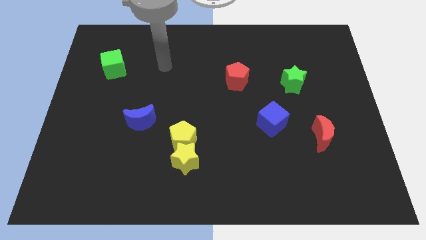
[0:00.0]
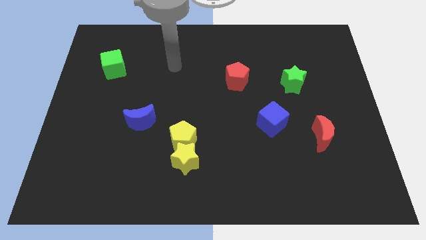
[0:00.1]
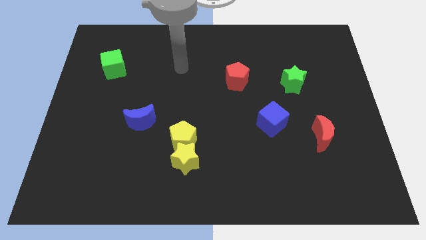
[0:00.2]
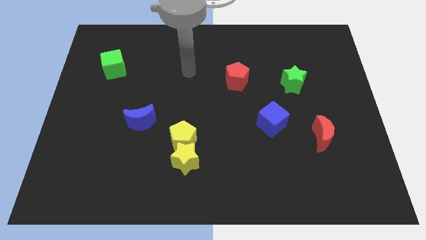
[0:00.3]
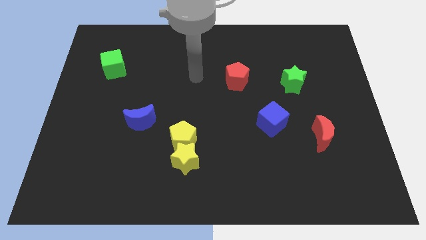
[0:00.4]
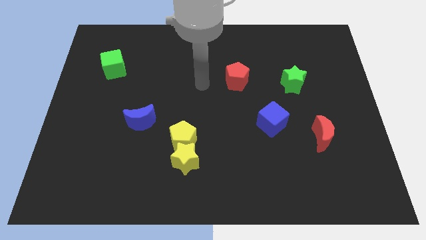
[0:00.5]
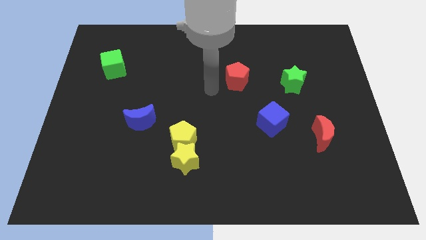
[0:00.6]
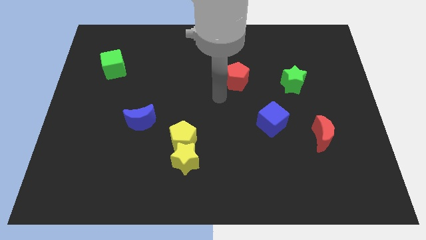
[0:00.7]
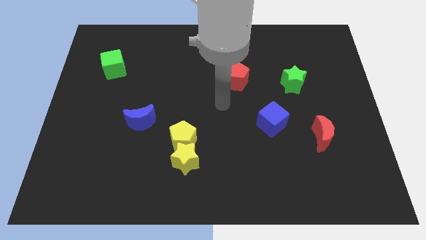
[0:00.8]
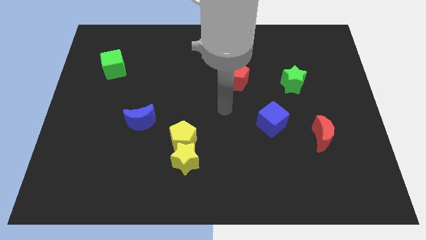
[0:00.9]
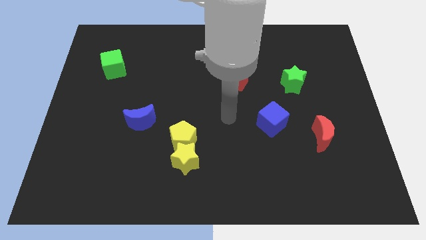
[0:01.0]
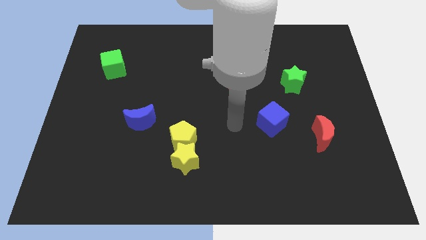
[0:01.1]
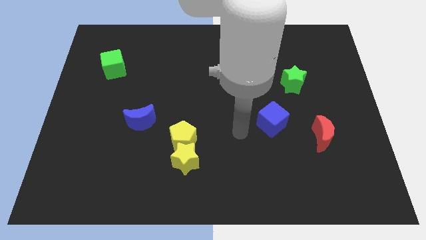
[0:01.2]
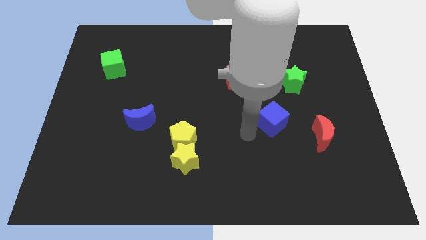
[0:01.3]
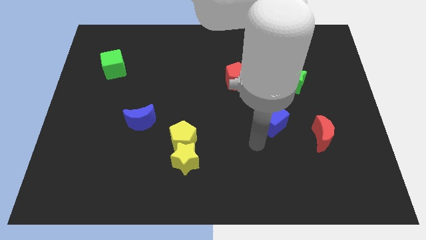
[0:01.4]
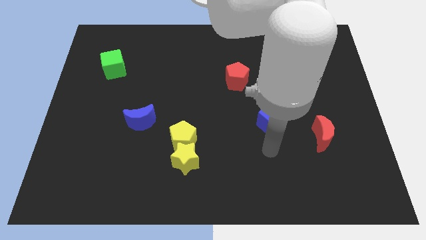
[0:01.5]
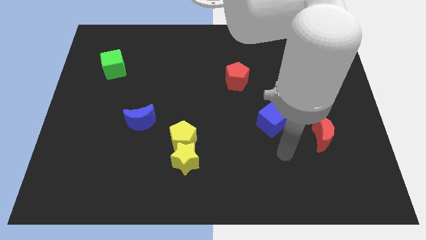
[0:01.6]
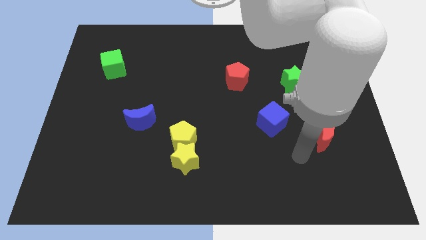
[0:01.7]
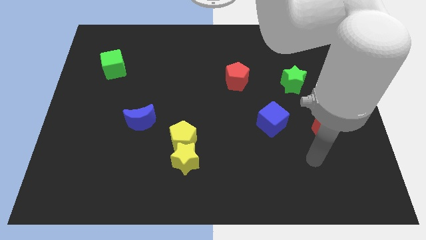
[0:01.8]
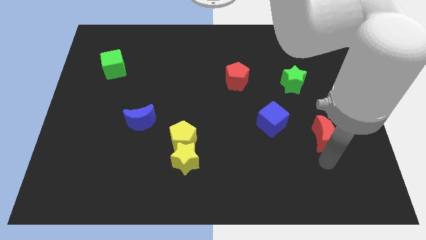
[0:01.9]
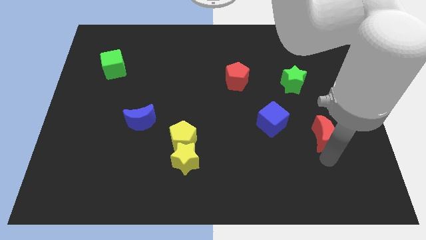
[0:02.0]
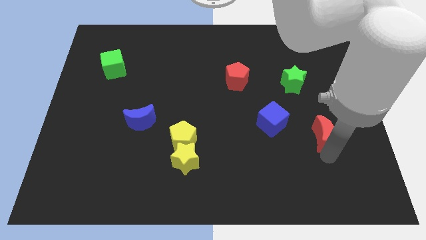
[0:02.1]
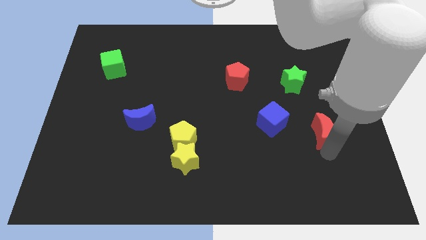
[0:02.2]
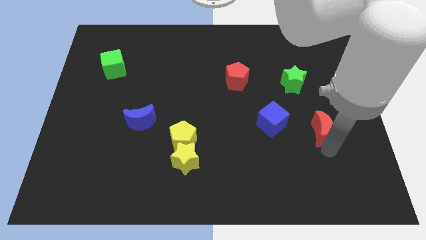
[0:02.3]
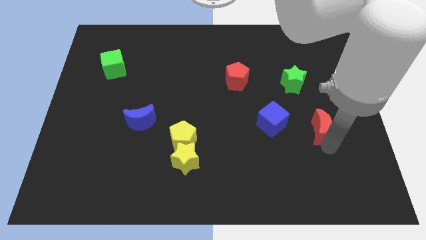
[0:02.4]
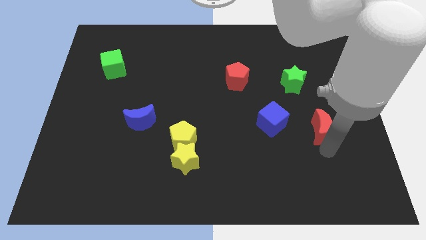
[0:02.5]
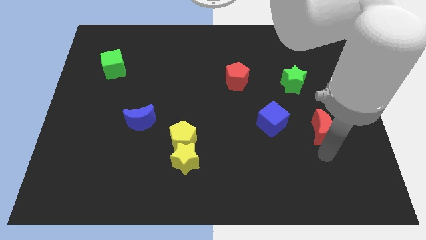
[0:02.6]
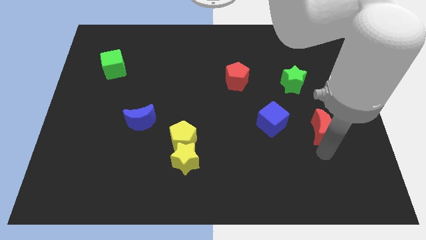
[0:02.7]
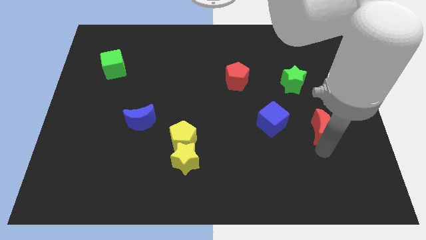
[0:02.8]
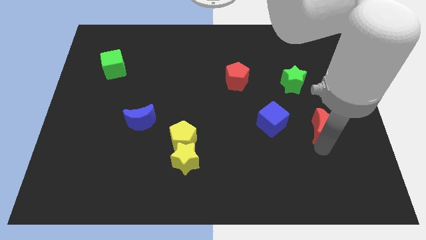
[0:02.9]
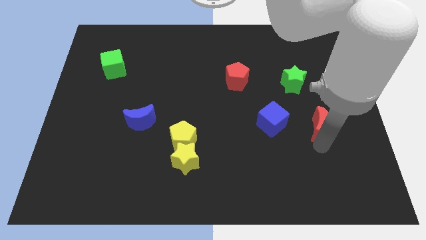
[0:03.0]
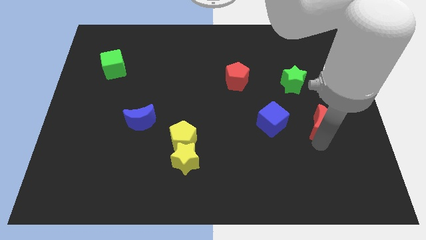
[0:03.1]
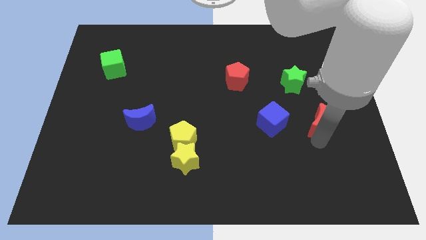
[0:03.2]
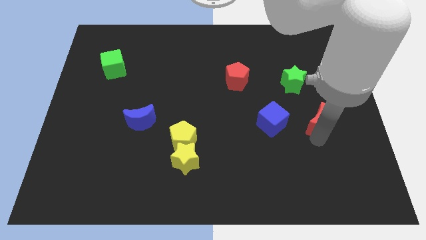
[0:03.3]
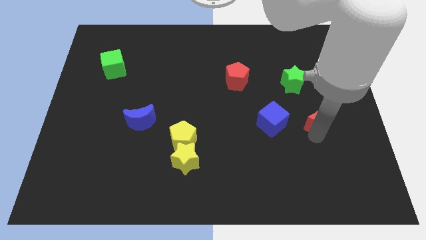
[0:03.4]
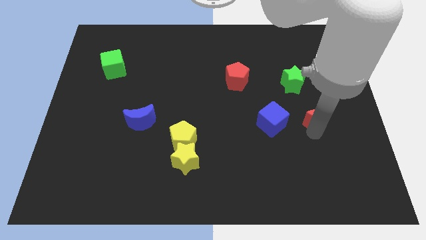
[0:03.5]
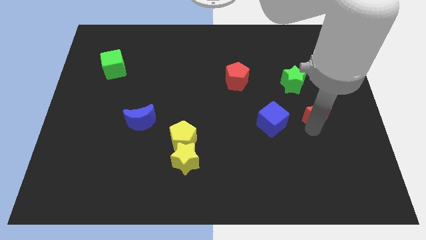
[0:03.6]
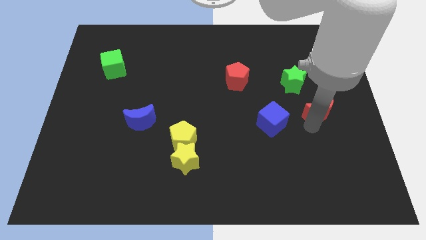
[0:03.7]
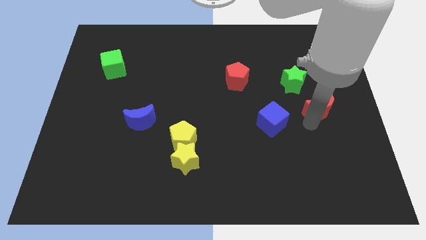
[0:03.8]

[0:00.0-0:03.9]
slightly push the red moon up

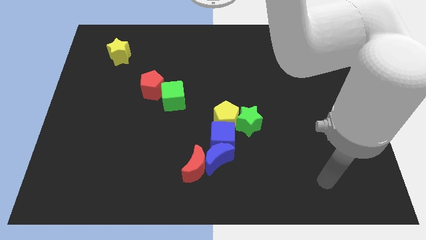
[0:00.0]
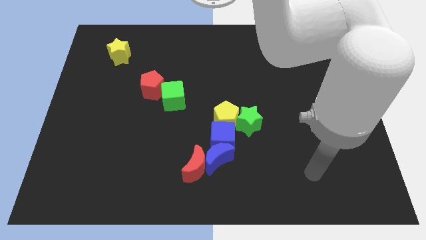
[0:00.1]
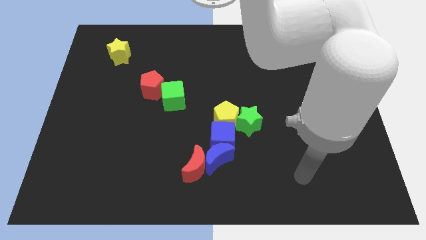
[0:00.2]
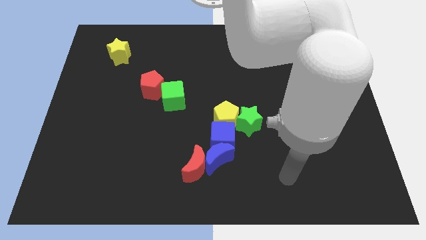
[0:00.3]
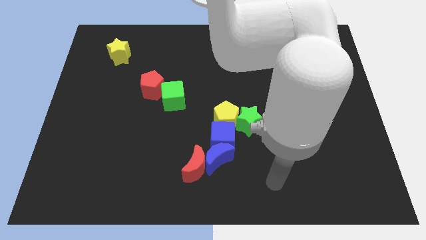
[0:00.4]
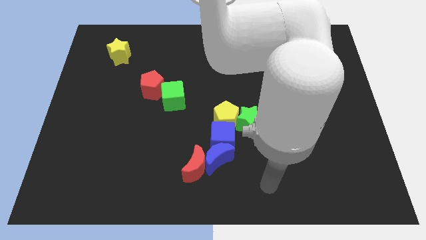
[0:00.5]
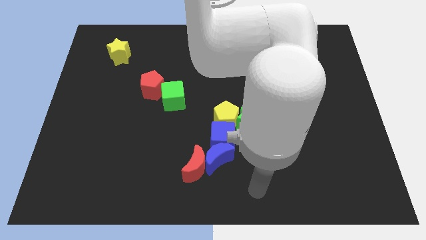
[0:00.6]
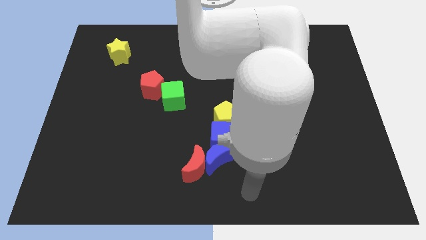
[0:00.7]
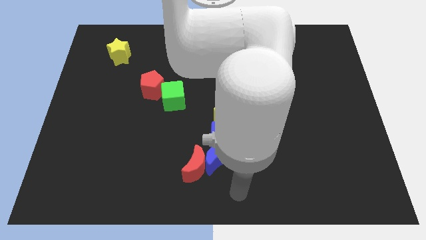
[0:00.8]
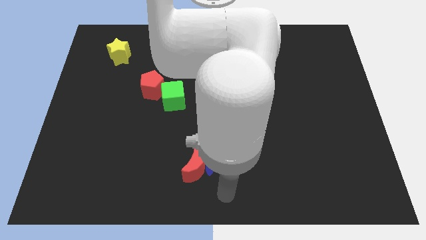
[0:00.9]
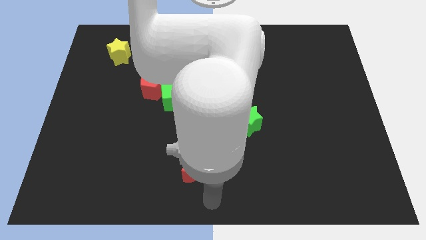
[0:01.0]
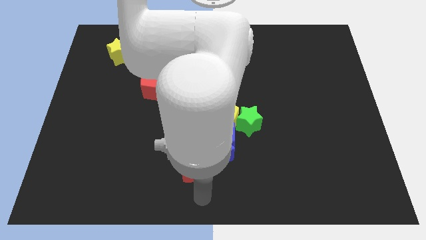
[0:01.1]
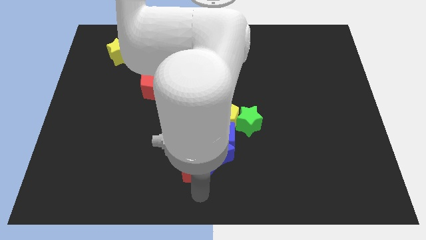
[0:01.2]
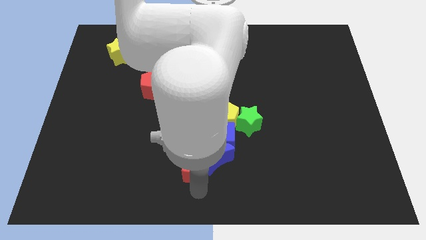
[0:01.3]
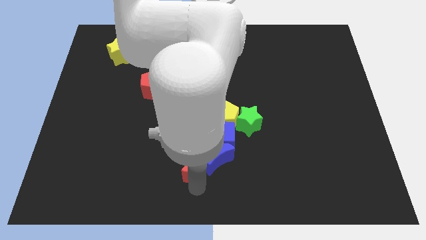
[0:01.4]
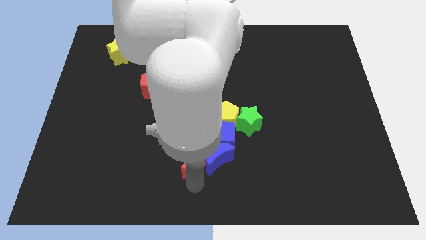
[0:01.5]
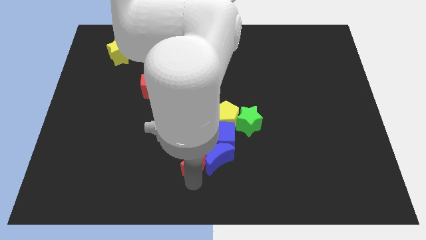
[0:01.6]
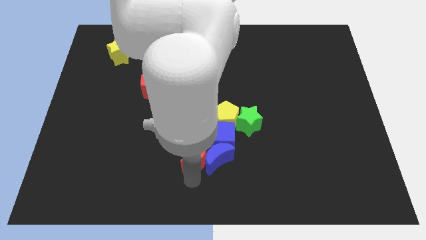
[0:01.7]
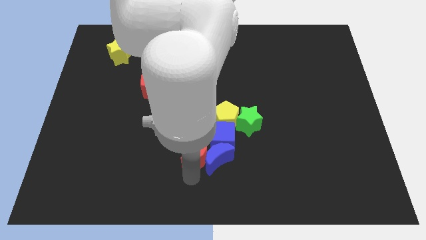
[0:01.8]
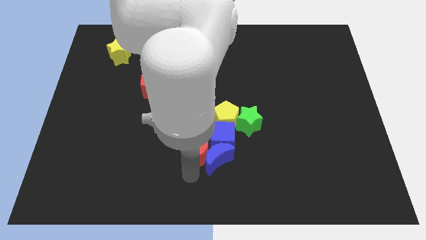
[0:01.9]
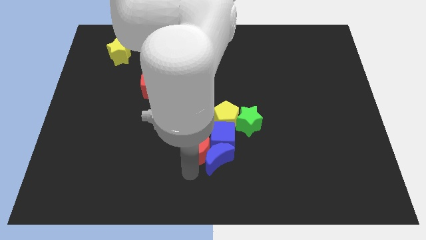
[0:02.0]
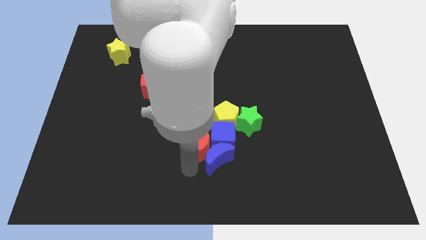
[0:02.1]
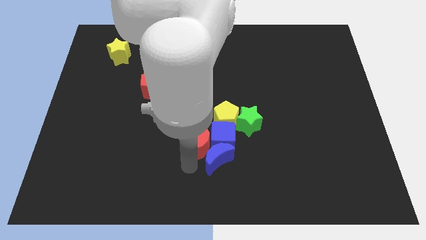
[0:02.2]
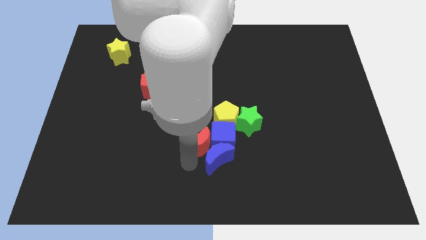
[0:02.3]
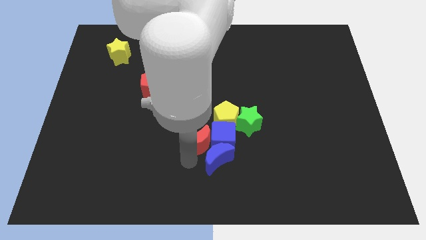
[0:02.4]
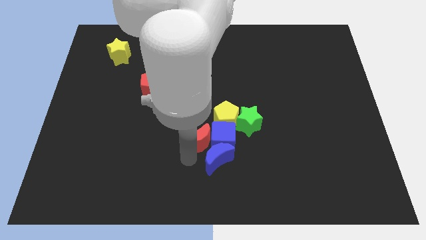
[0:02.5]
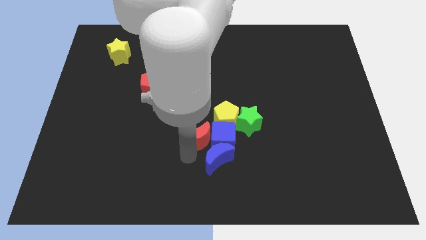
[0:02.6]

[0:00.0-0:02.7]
slightly slide the red moon up

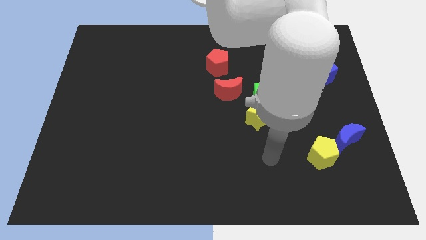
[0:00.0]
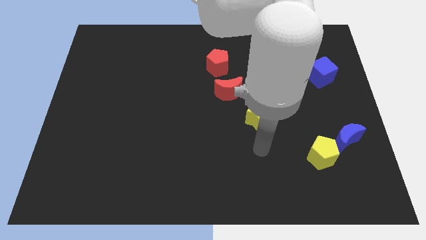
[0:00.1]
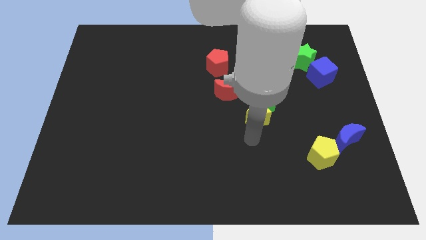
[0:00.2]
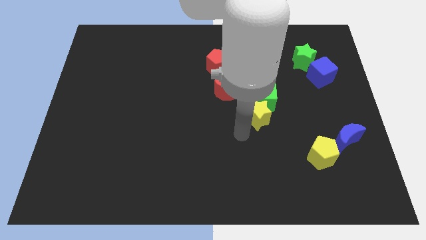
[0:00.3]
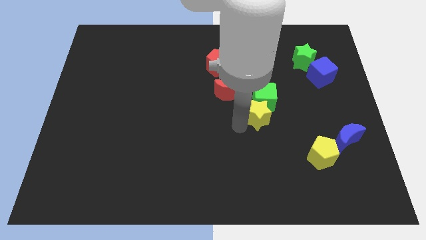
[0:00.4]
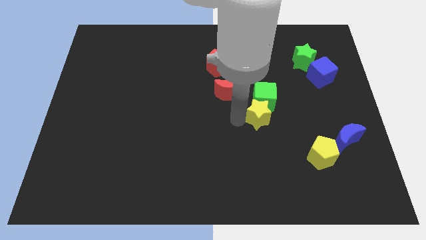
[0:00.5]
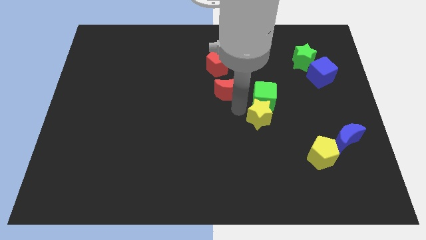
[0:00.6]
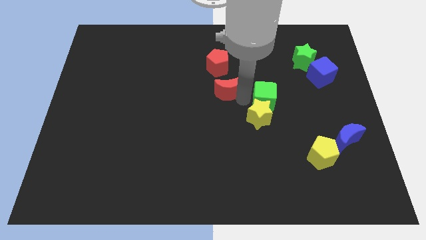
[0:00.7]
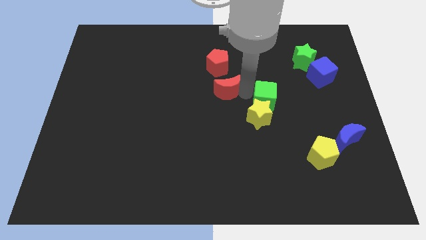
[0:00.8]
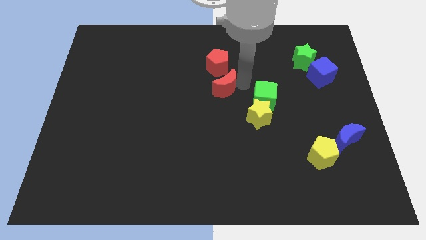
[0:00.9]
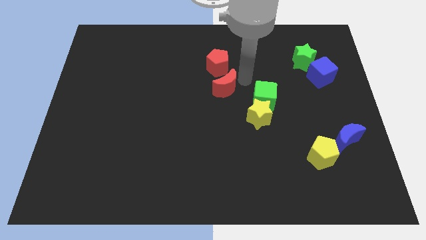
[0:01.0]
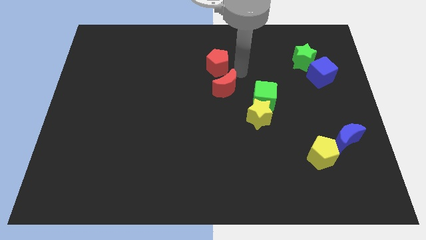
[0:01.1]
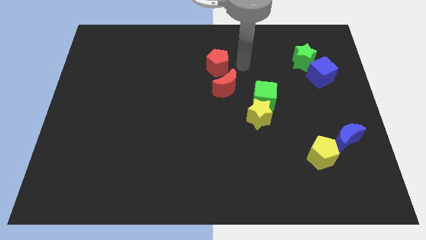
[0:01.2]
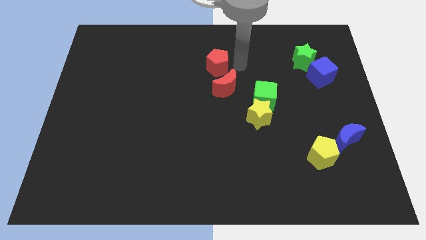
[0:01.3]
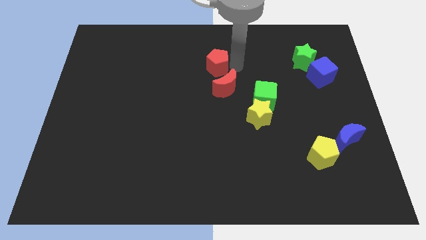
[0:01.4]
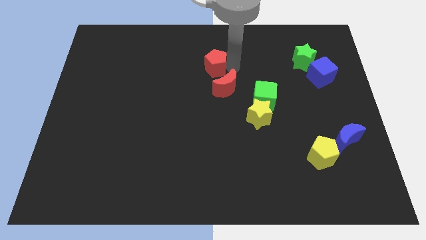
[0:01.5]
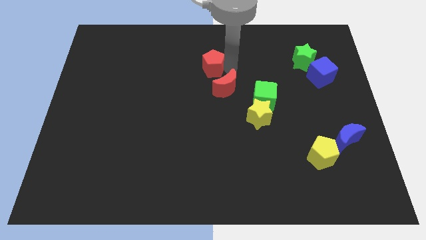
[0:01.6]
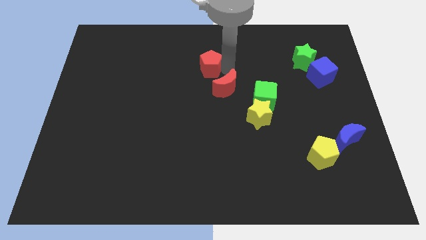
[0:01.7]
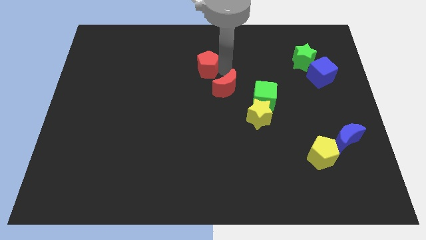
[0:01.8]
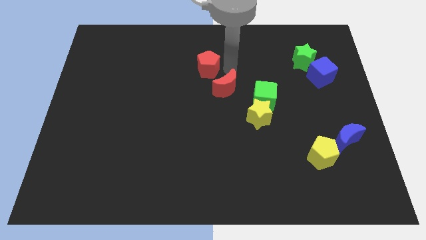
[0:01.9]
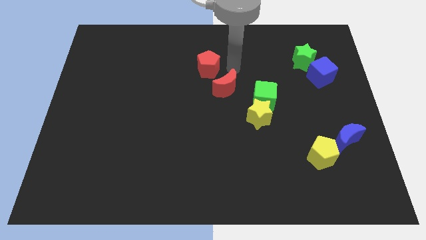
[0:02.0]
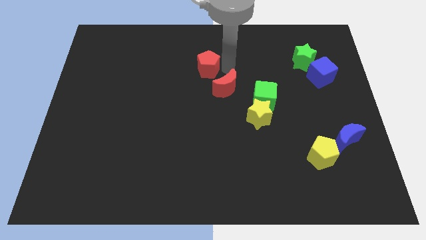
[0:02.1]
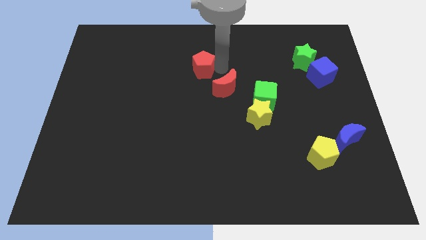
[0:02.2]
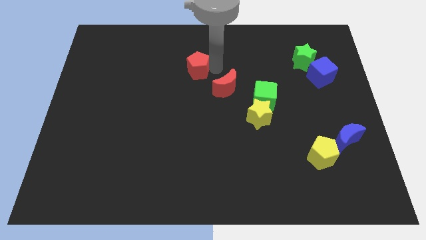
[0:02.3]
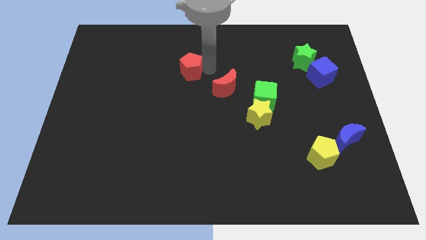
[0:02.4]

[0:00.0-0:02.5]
push the red pentagon left a little bit
